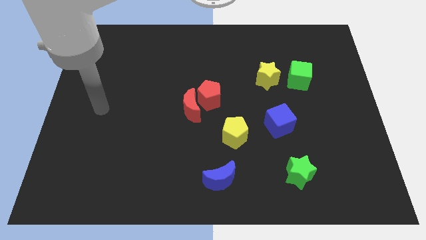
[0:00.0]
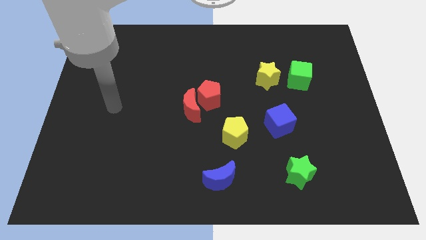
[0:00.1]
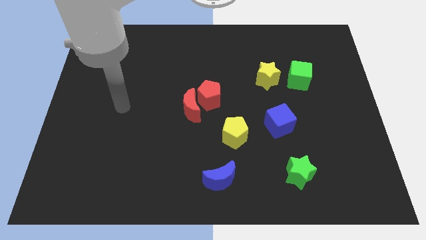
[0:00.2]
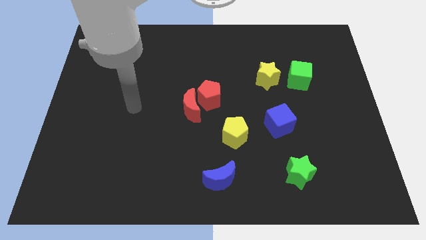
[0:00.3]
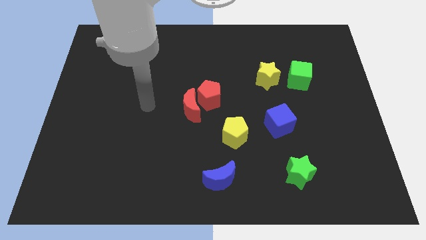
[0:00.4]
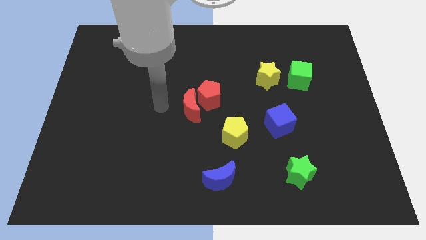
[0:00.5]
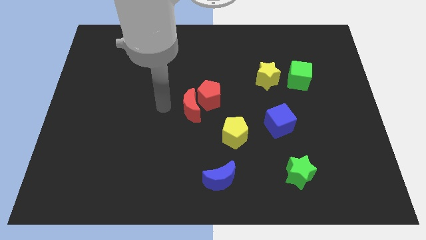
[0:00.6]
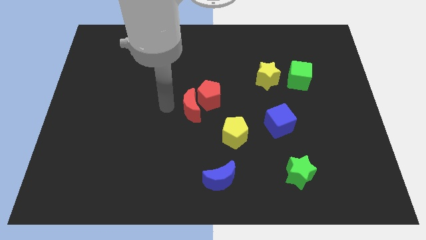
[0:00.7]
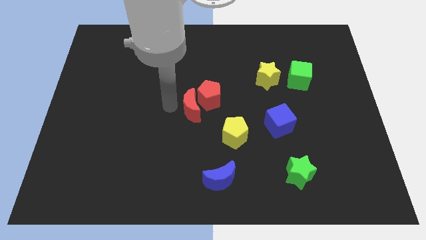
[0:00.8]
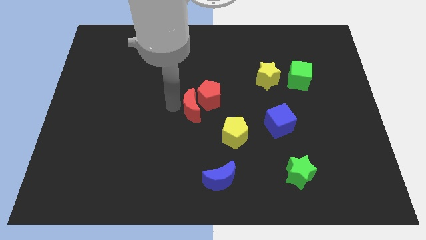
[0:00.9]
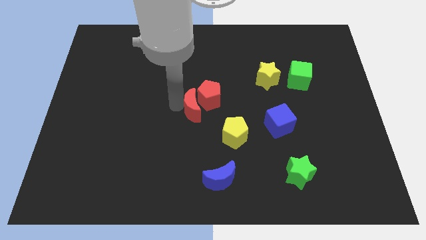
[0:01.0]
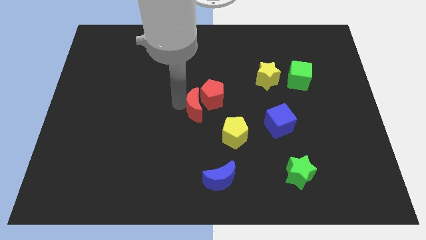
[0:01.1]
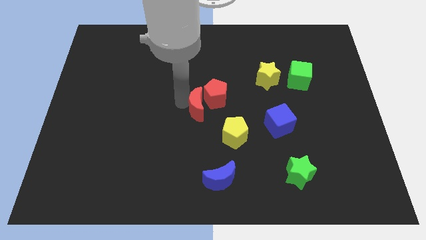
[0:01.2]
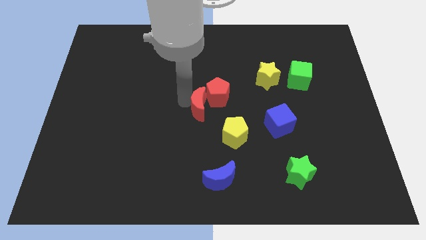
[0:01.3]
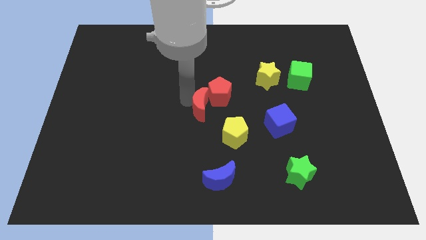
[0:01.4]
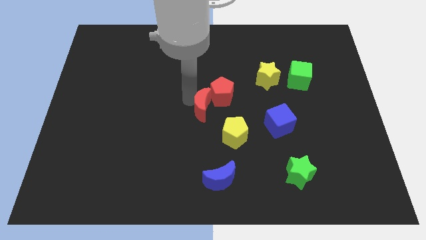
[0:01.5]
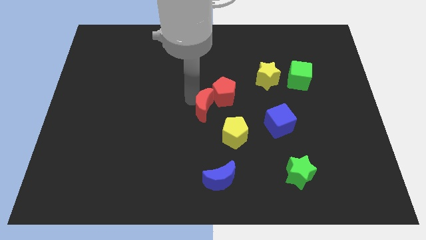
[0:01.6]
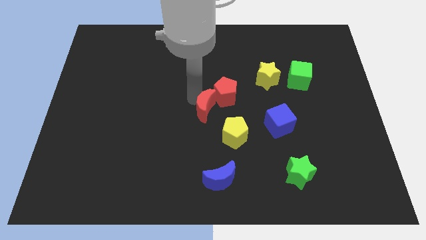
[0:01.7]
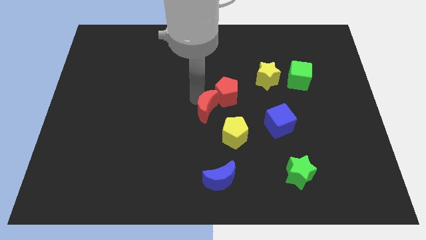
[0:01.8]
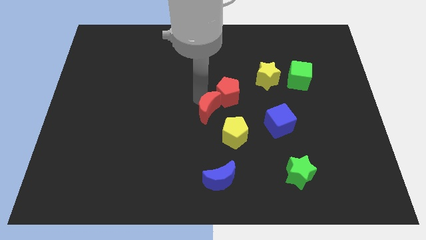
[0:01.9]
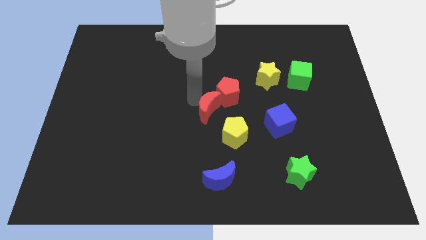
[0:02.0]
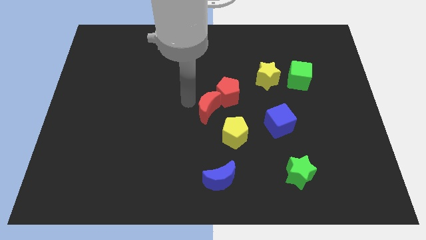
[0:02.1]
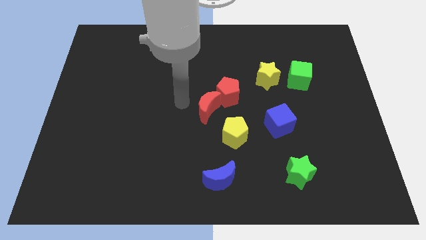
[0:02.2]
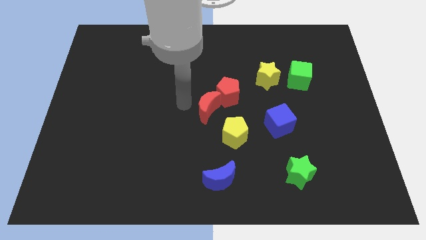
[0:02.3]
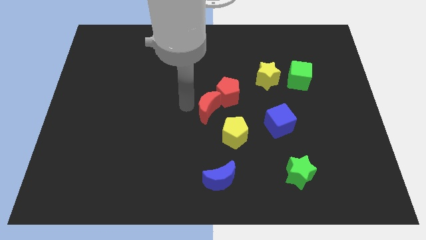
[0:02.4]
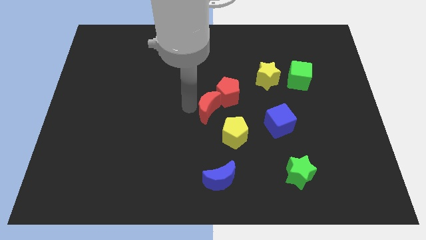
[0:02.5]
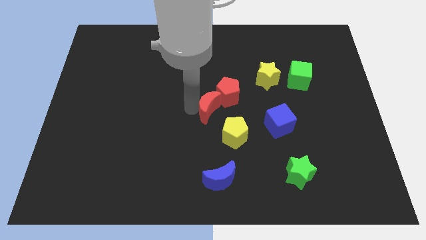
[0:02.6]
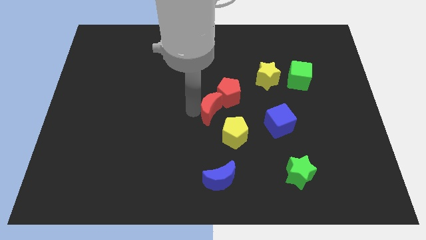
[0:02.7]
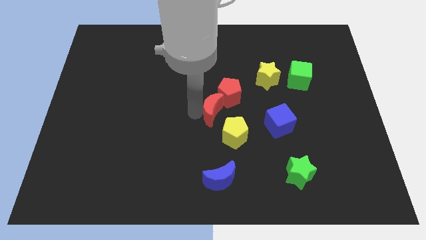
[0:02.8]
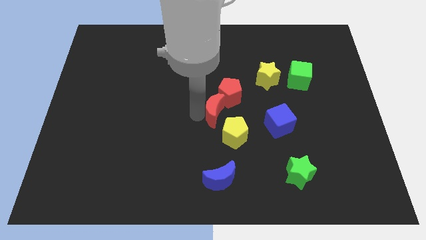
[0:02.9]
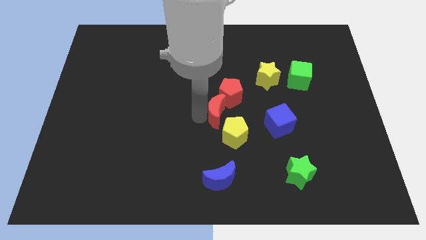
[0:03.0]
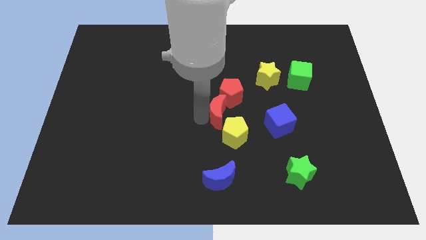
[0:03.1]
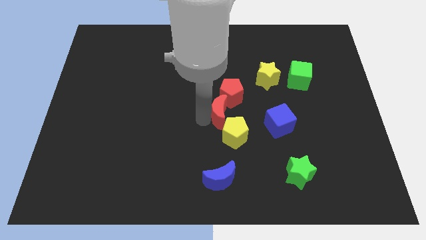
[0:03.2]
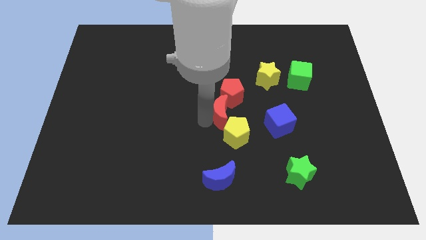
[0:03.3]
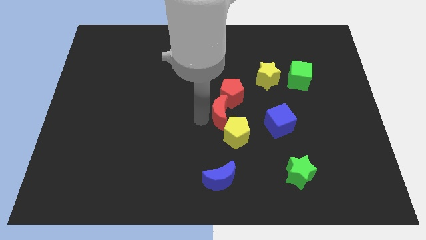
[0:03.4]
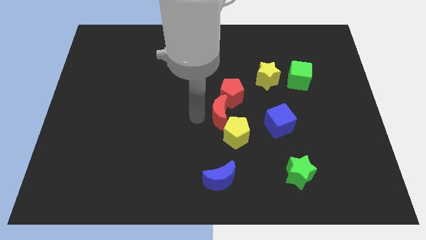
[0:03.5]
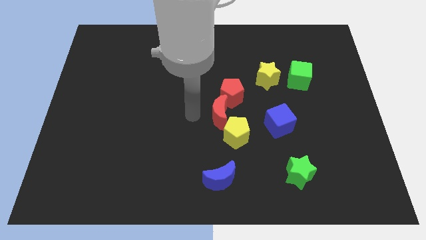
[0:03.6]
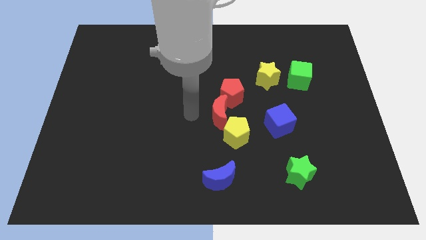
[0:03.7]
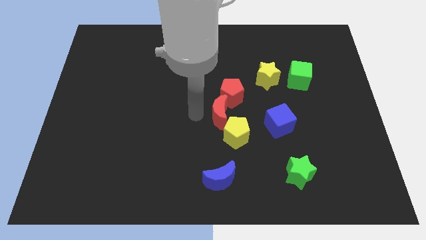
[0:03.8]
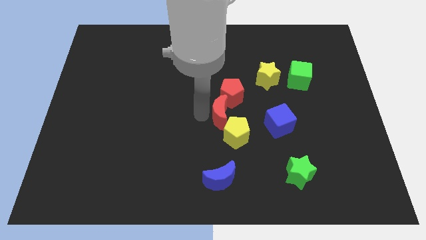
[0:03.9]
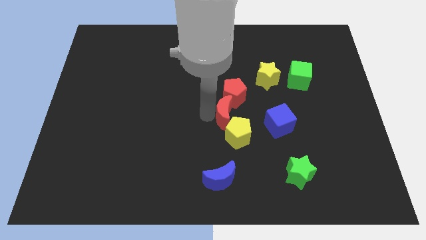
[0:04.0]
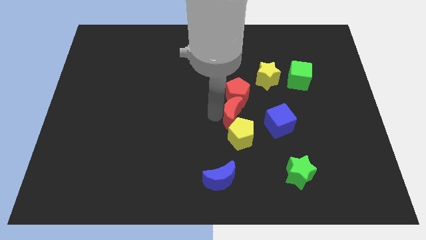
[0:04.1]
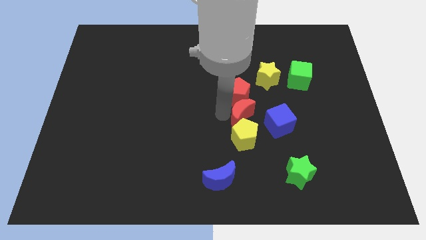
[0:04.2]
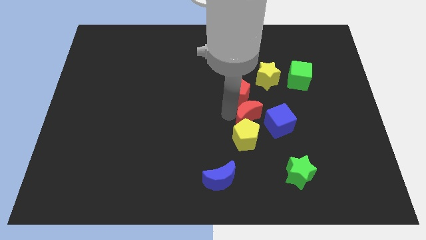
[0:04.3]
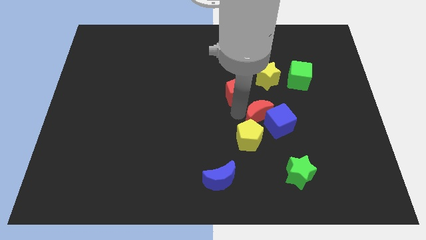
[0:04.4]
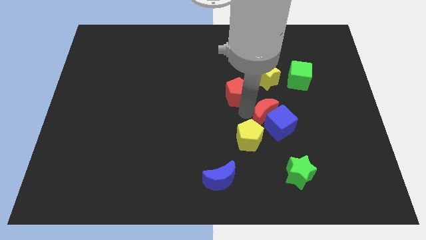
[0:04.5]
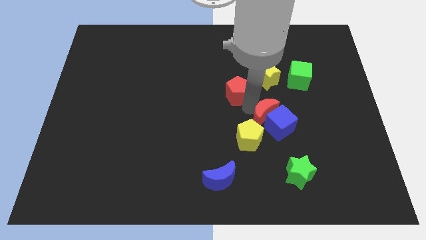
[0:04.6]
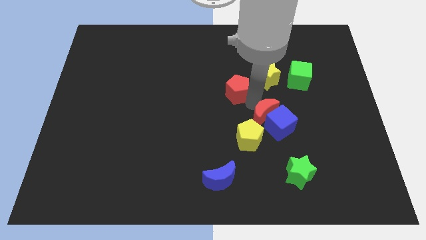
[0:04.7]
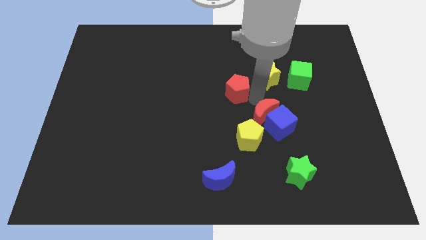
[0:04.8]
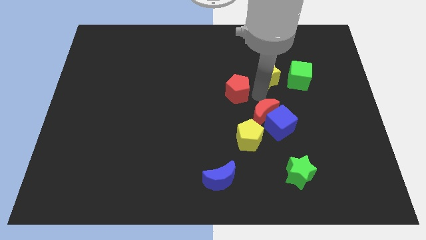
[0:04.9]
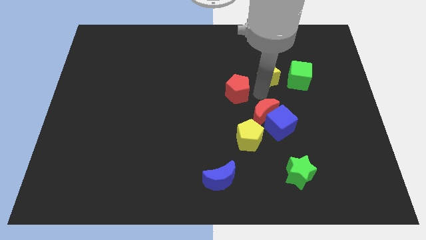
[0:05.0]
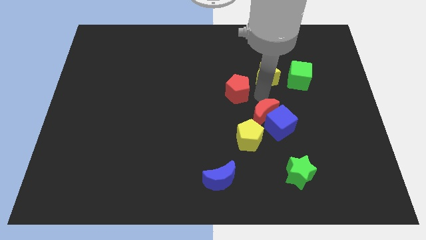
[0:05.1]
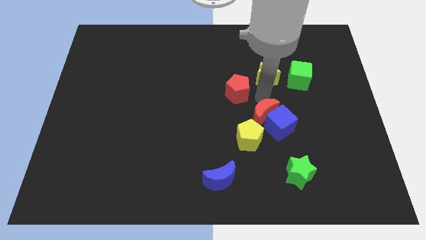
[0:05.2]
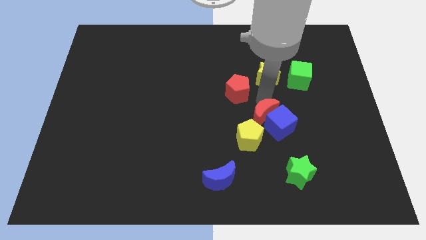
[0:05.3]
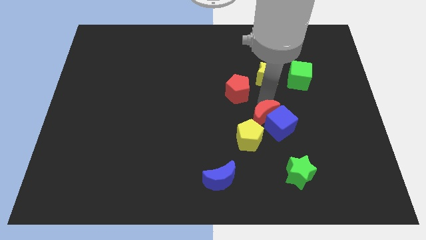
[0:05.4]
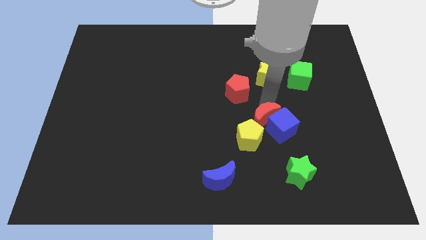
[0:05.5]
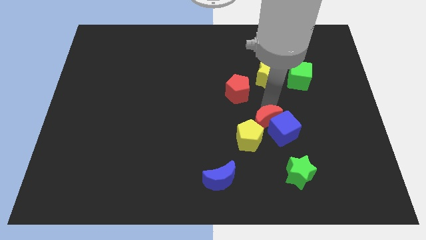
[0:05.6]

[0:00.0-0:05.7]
move the red moon to the right side of the yellow pentagon

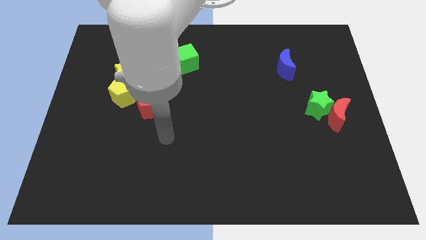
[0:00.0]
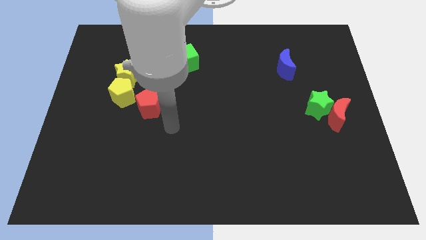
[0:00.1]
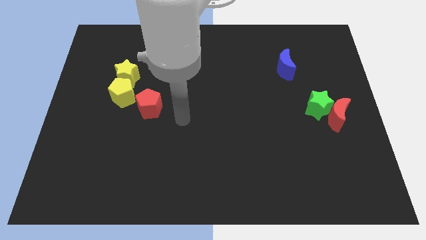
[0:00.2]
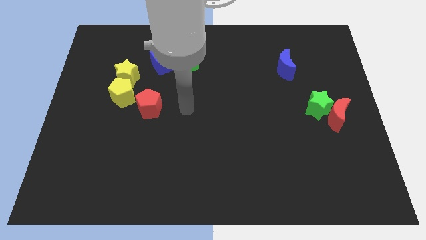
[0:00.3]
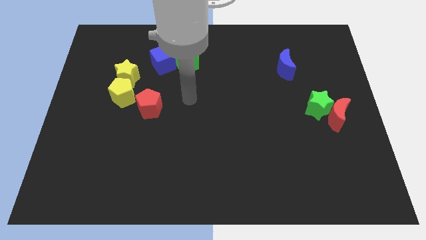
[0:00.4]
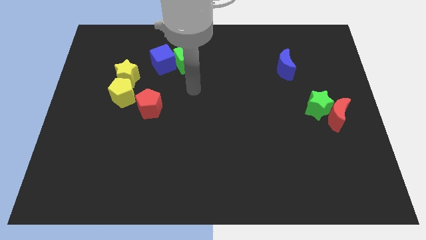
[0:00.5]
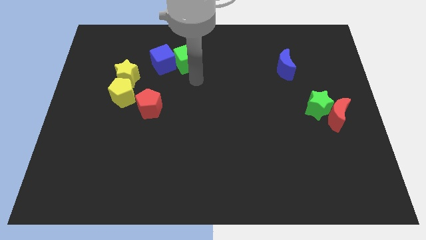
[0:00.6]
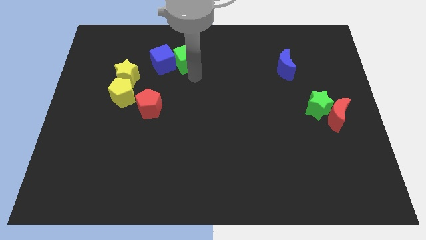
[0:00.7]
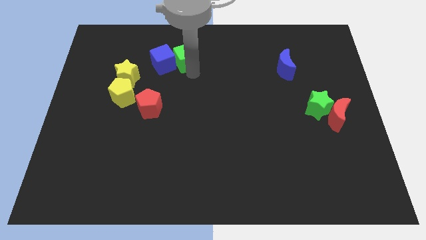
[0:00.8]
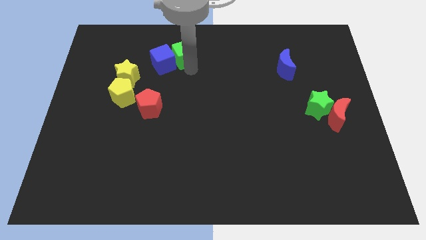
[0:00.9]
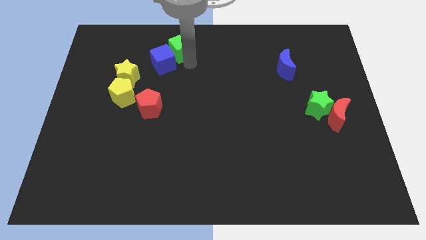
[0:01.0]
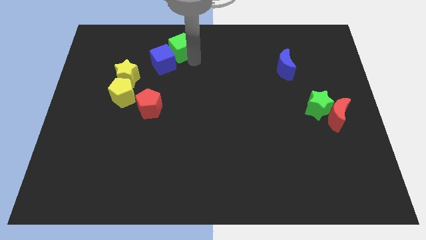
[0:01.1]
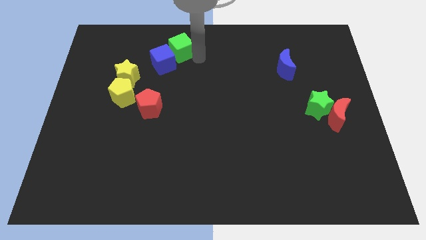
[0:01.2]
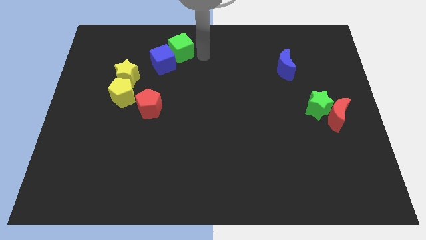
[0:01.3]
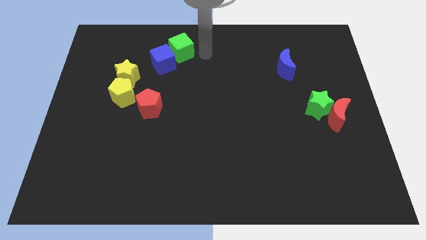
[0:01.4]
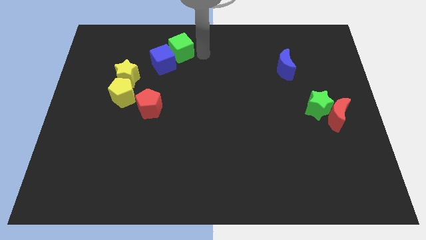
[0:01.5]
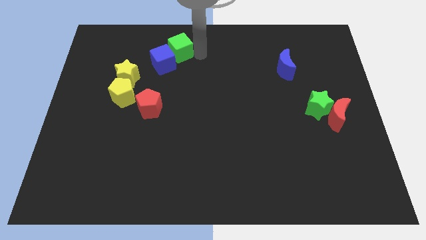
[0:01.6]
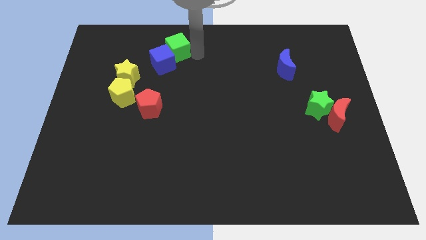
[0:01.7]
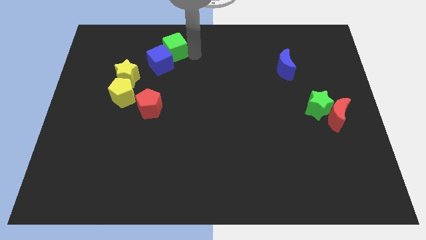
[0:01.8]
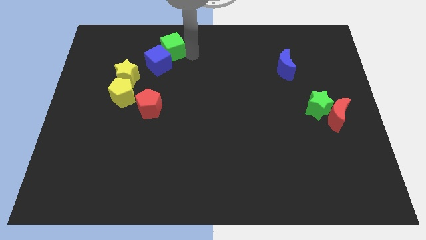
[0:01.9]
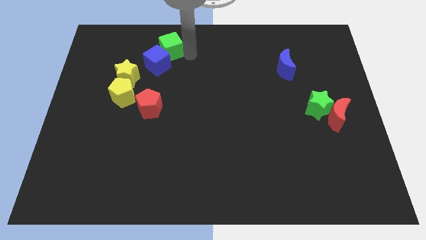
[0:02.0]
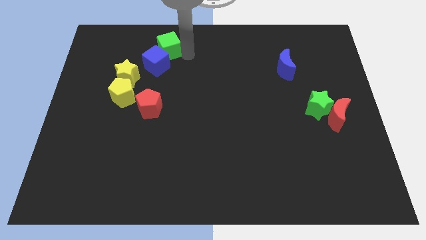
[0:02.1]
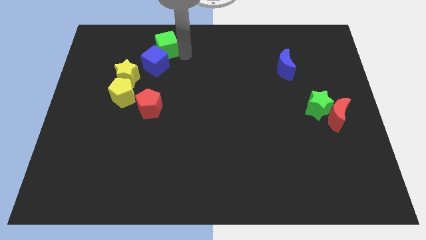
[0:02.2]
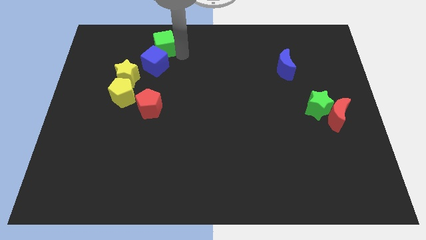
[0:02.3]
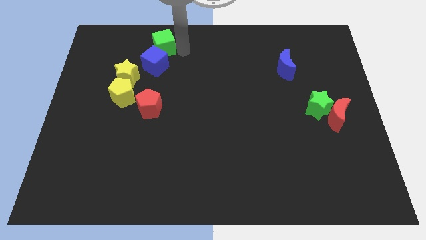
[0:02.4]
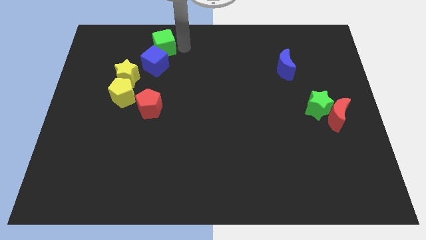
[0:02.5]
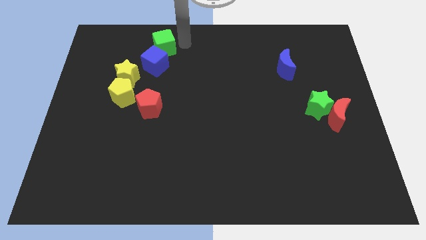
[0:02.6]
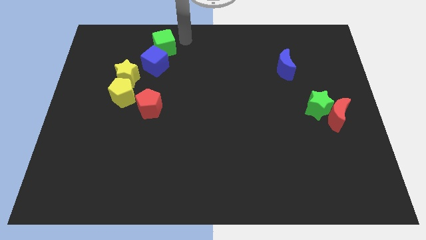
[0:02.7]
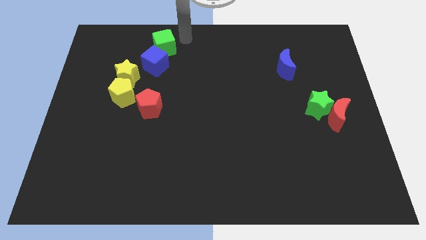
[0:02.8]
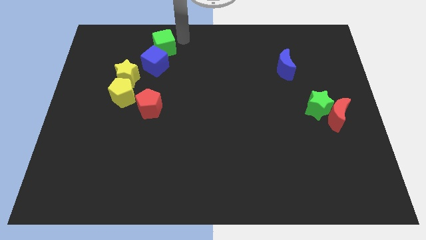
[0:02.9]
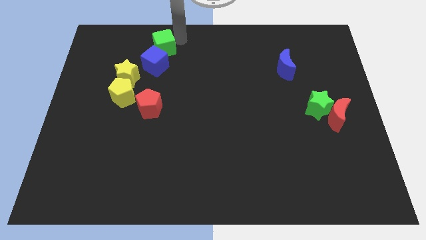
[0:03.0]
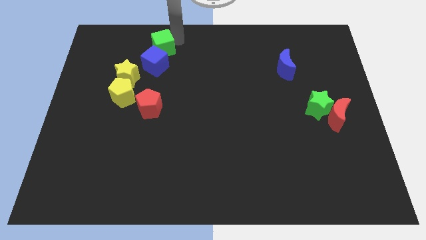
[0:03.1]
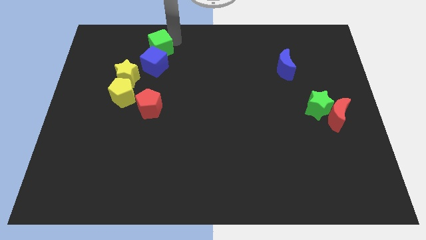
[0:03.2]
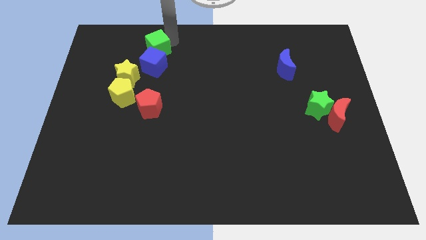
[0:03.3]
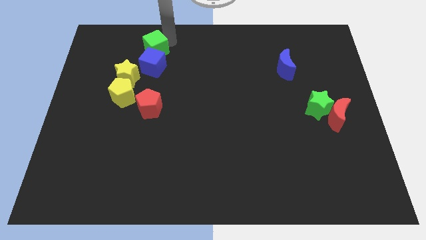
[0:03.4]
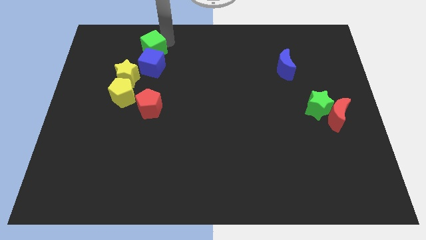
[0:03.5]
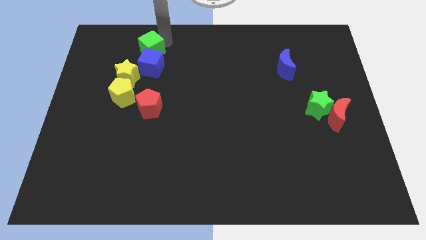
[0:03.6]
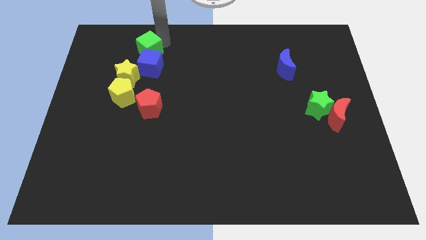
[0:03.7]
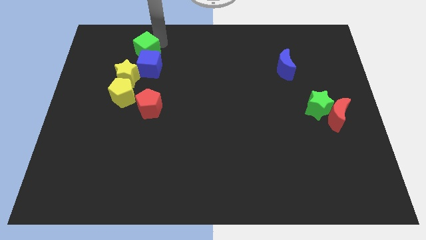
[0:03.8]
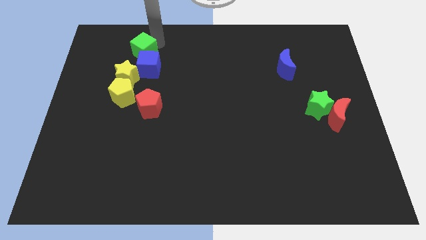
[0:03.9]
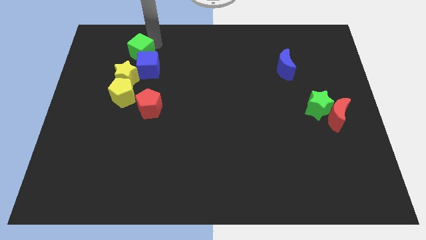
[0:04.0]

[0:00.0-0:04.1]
put the green cube to the top side of the yellow pentagon
